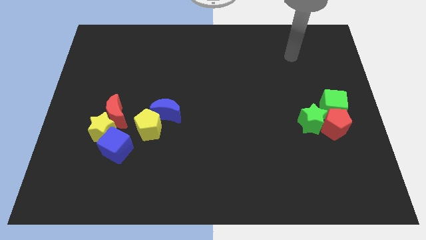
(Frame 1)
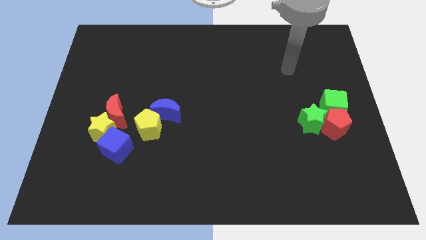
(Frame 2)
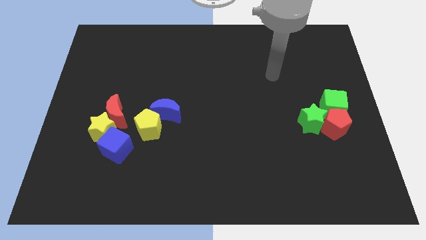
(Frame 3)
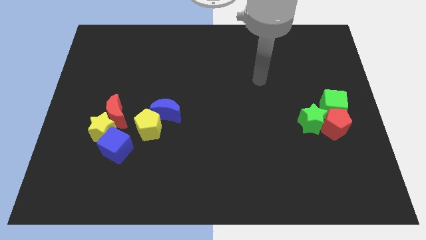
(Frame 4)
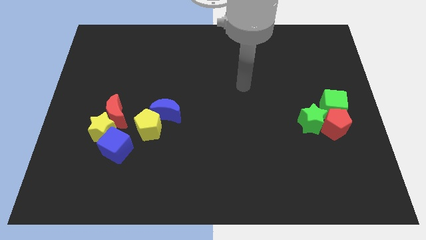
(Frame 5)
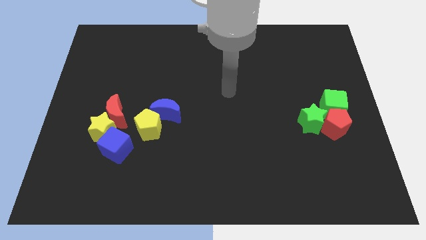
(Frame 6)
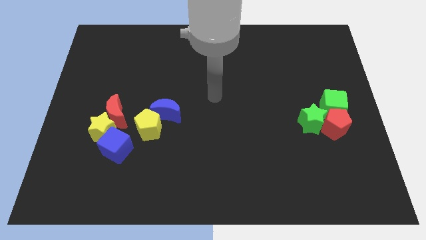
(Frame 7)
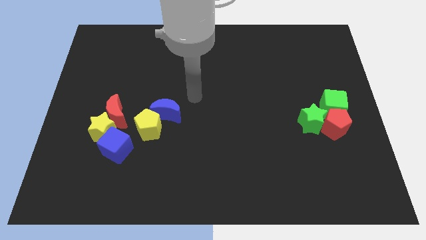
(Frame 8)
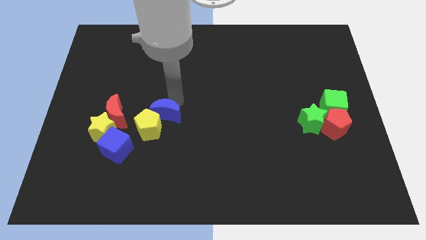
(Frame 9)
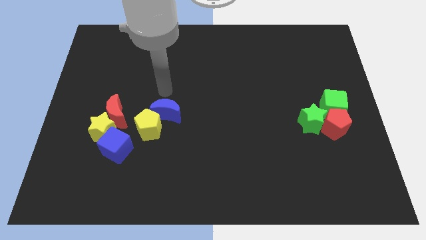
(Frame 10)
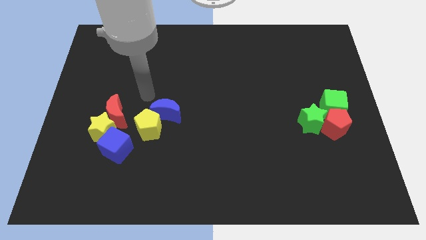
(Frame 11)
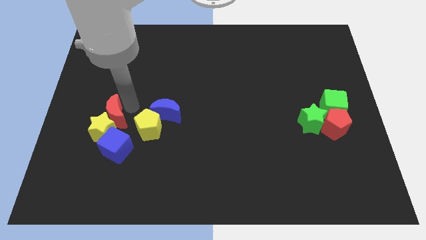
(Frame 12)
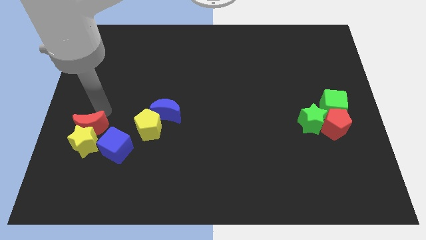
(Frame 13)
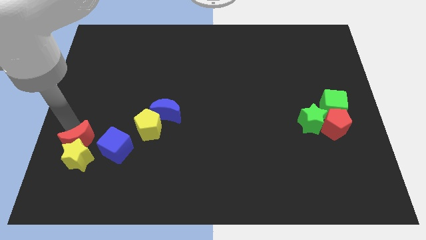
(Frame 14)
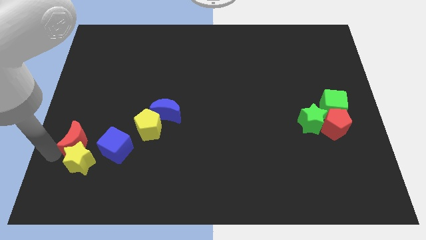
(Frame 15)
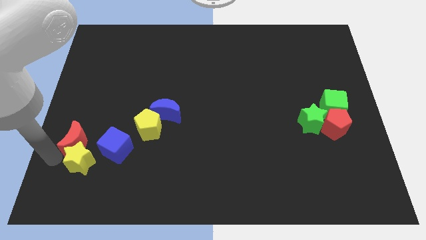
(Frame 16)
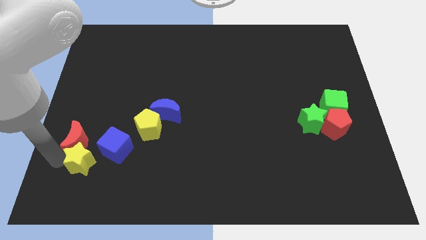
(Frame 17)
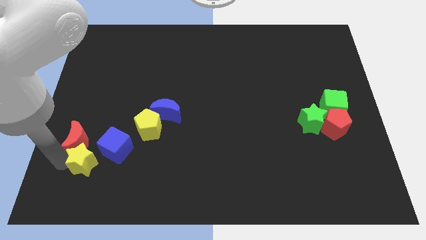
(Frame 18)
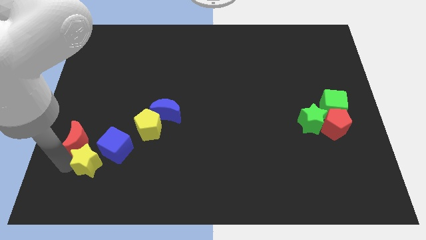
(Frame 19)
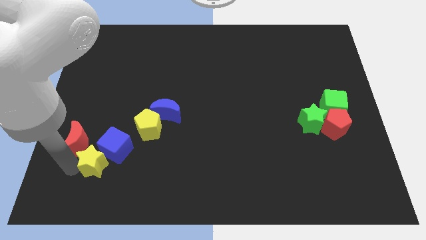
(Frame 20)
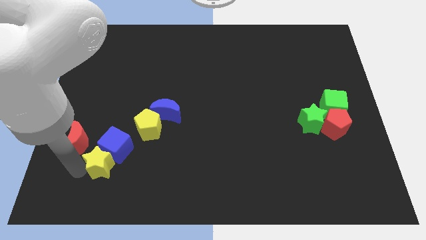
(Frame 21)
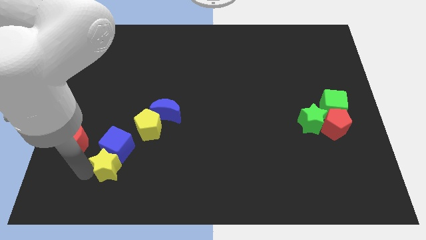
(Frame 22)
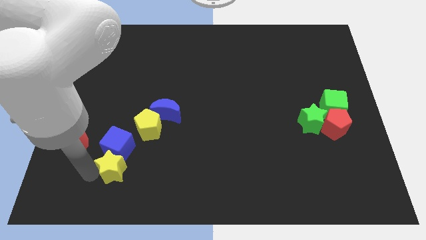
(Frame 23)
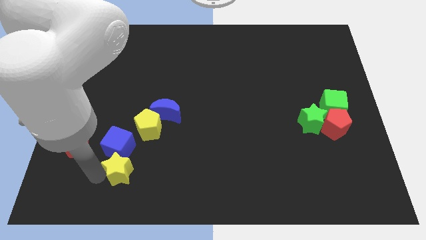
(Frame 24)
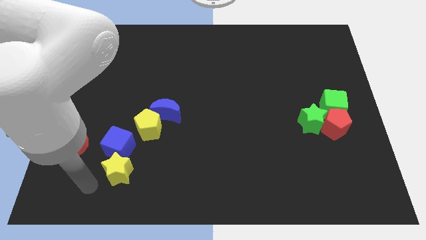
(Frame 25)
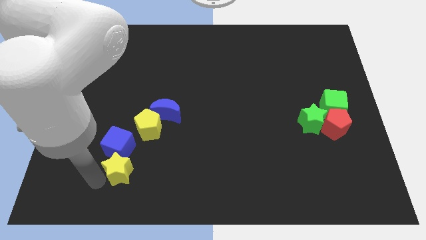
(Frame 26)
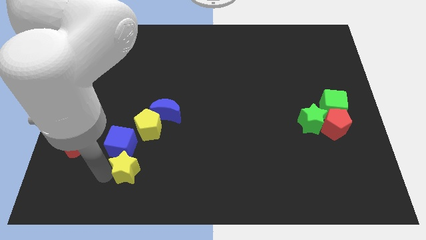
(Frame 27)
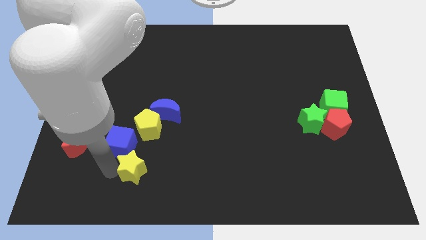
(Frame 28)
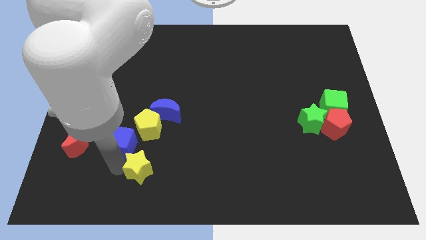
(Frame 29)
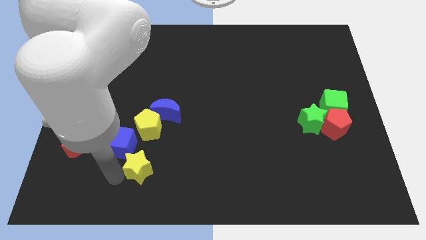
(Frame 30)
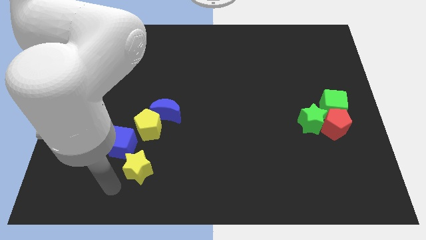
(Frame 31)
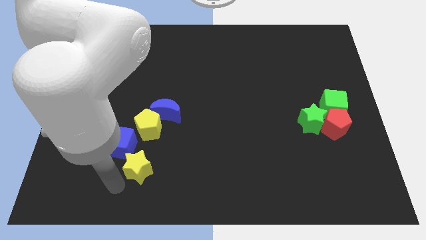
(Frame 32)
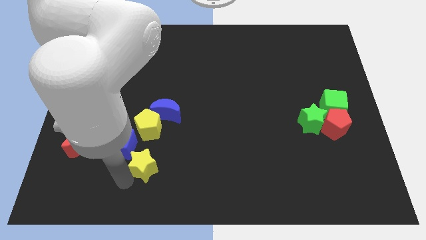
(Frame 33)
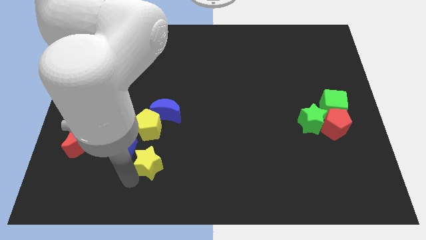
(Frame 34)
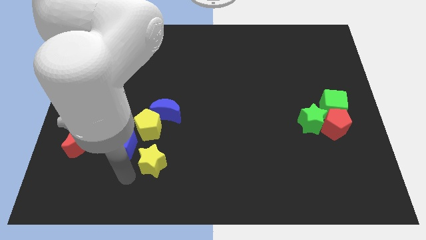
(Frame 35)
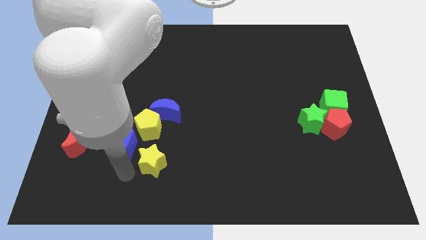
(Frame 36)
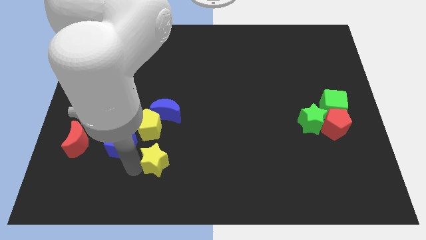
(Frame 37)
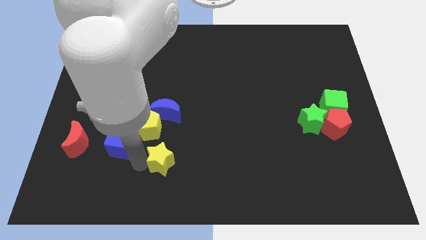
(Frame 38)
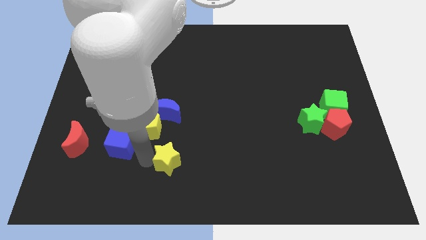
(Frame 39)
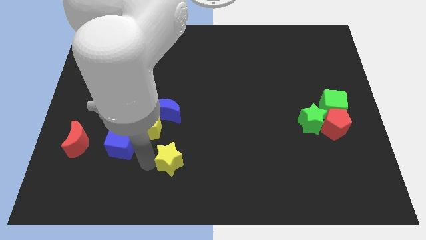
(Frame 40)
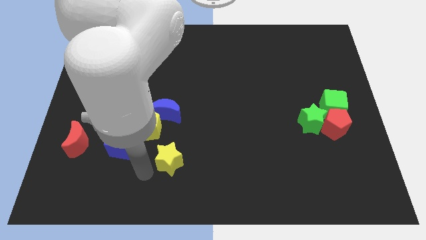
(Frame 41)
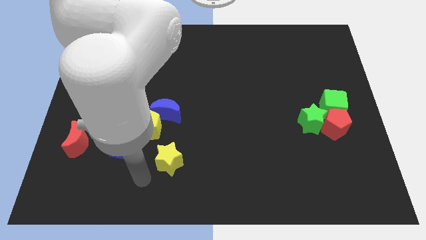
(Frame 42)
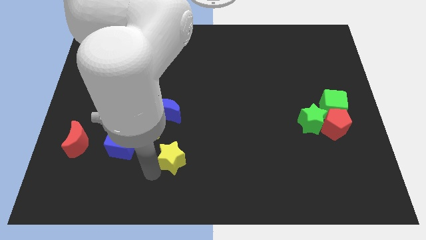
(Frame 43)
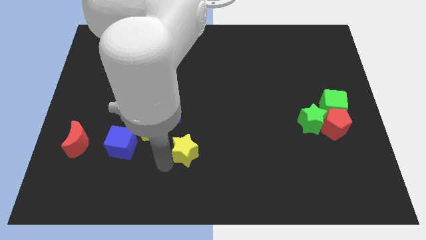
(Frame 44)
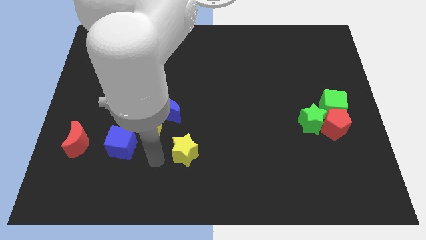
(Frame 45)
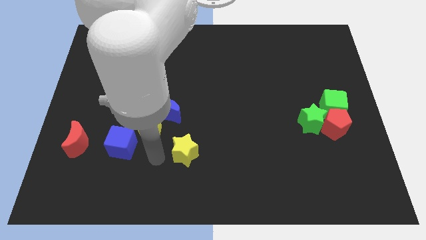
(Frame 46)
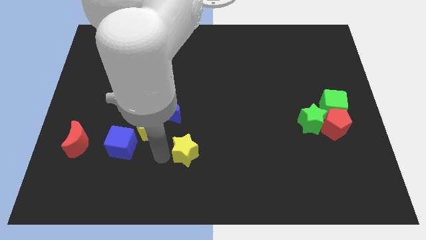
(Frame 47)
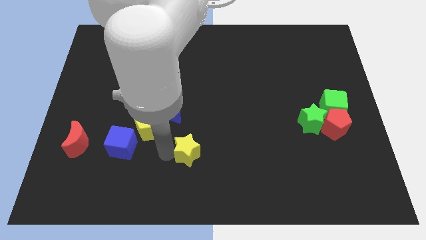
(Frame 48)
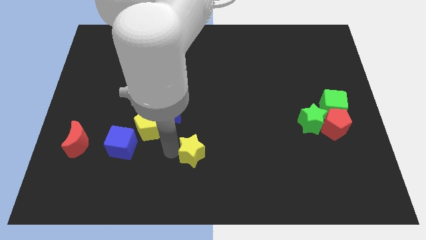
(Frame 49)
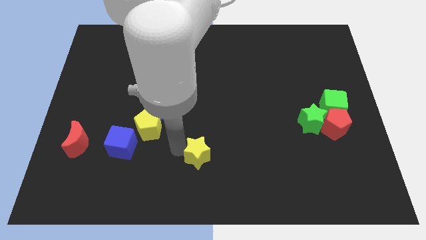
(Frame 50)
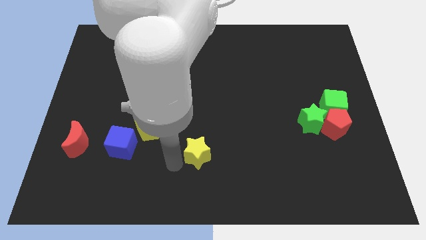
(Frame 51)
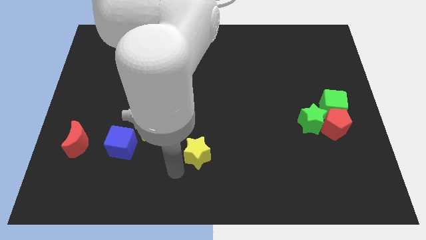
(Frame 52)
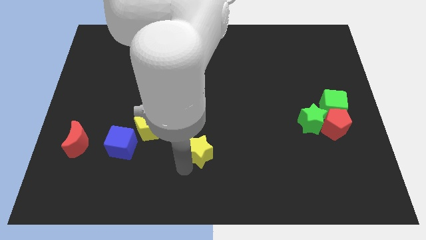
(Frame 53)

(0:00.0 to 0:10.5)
slide the yellow star to the right

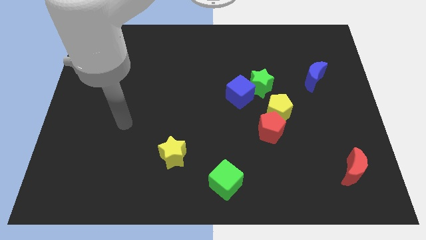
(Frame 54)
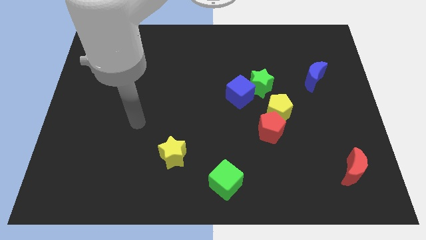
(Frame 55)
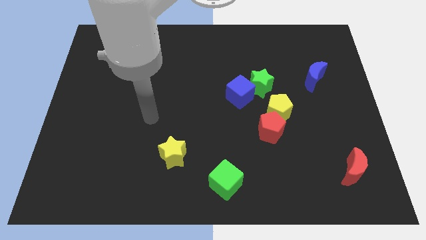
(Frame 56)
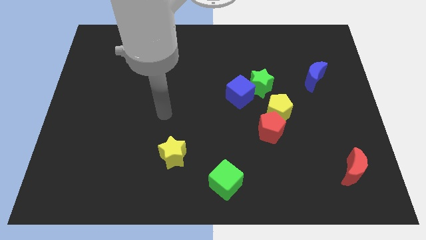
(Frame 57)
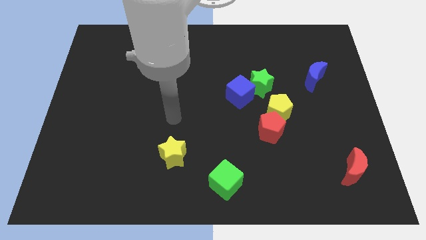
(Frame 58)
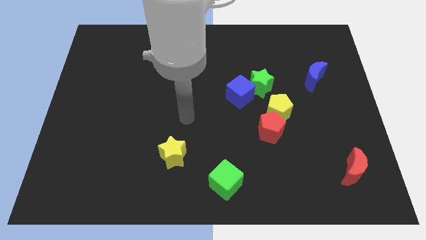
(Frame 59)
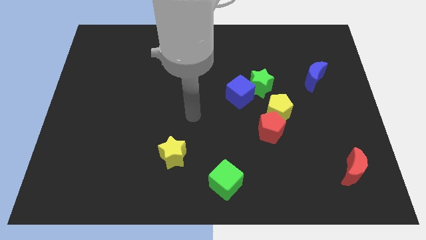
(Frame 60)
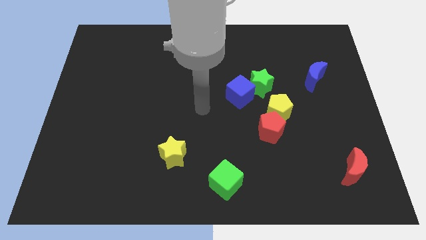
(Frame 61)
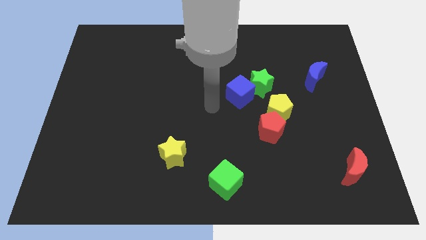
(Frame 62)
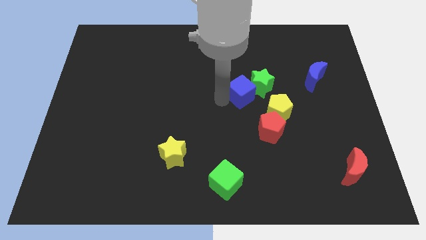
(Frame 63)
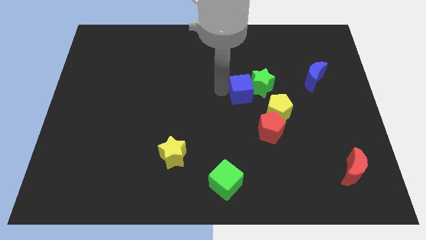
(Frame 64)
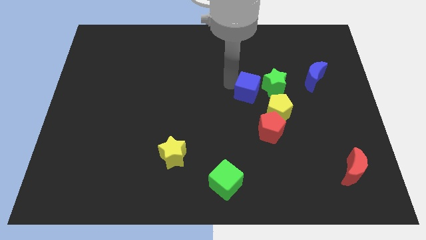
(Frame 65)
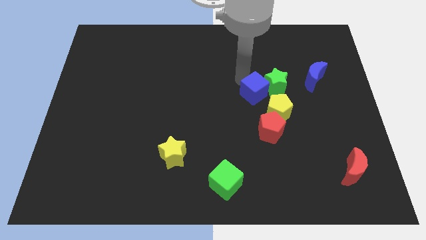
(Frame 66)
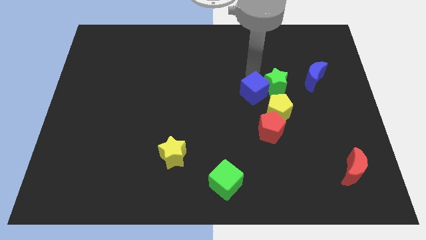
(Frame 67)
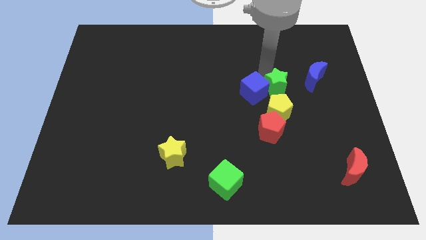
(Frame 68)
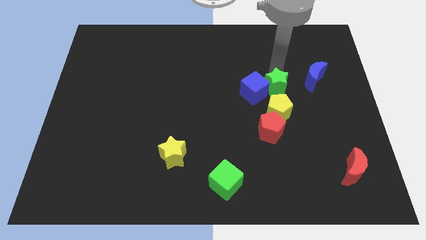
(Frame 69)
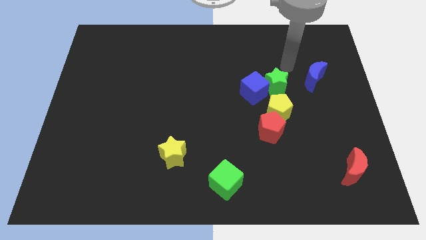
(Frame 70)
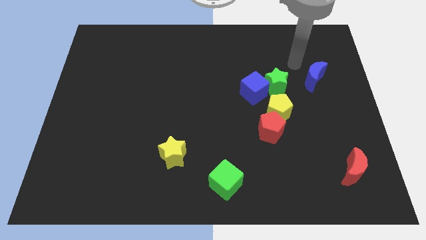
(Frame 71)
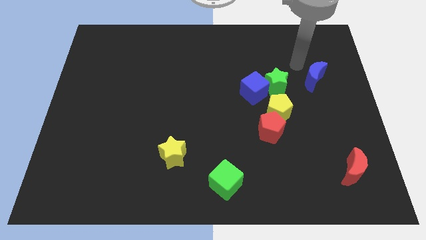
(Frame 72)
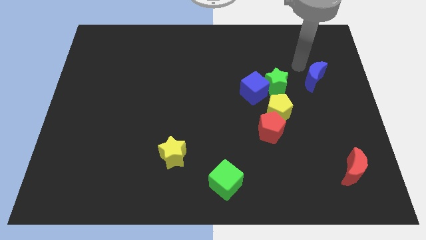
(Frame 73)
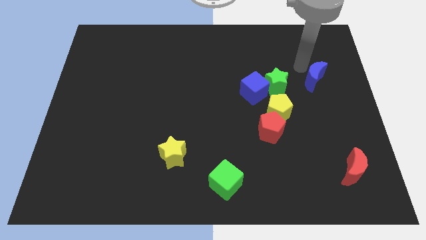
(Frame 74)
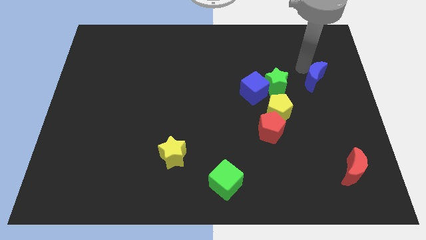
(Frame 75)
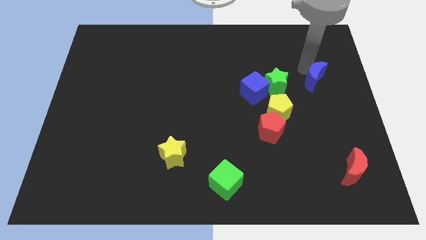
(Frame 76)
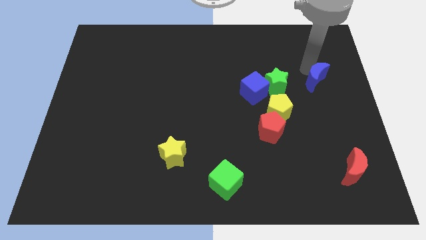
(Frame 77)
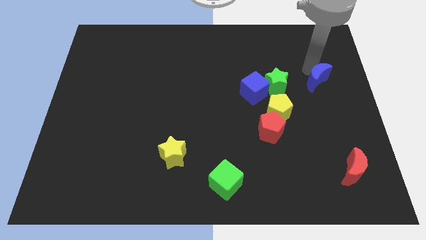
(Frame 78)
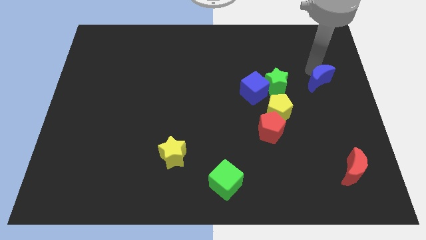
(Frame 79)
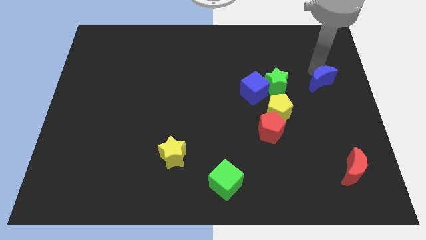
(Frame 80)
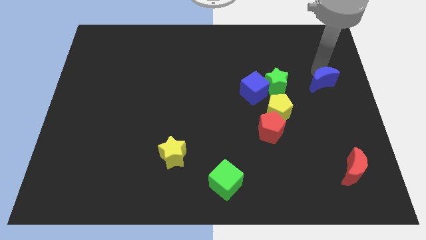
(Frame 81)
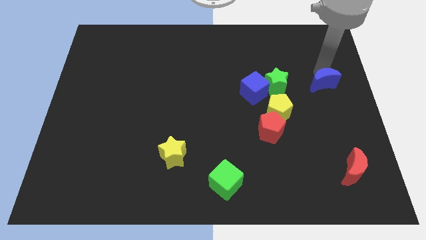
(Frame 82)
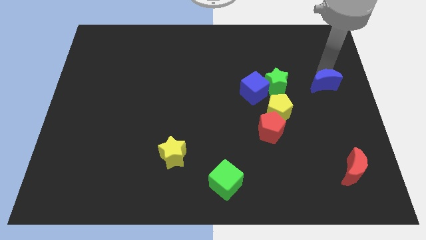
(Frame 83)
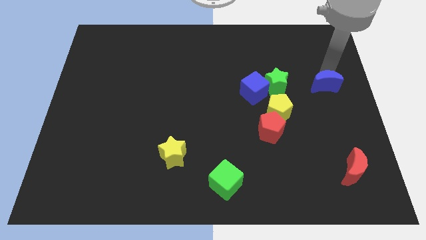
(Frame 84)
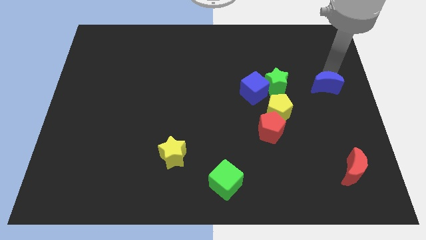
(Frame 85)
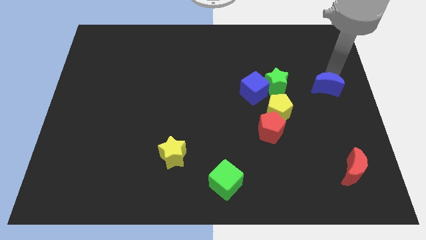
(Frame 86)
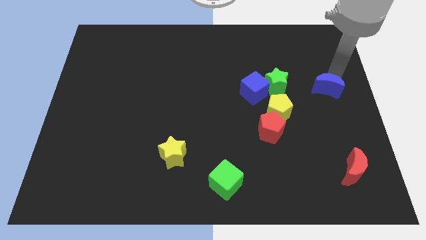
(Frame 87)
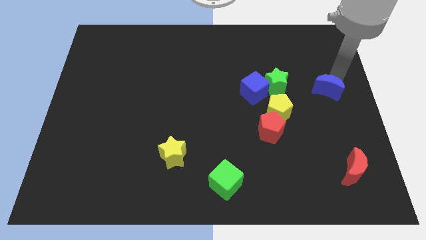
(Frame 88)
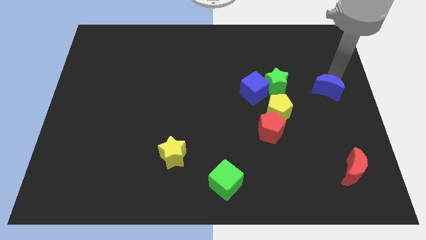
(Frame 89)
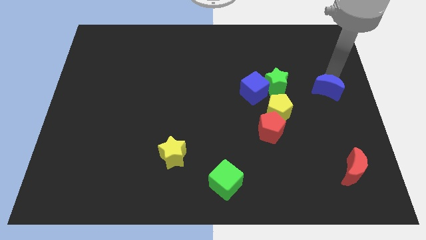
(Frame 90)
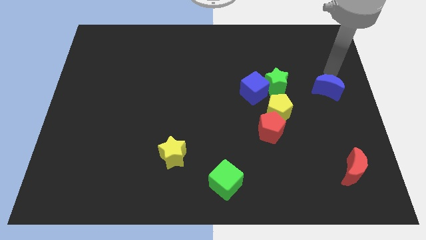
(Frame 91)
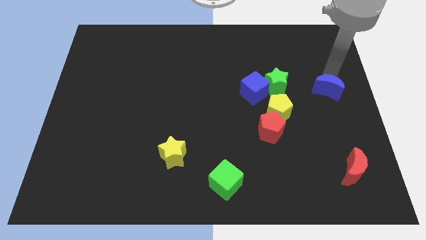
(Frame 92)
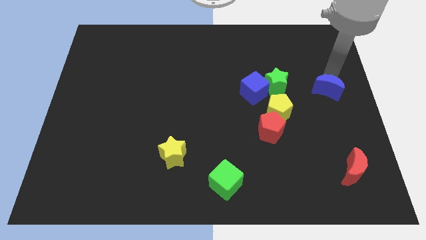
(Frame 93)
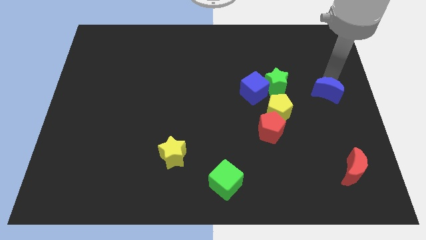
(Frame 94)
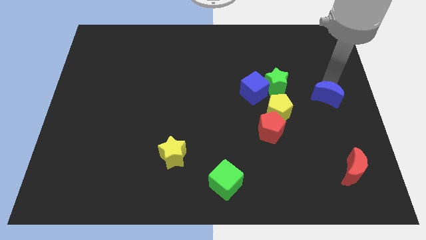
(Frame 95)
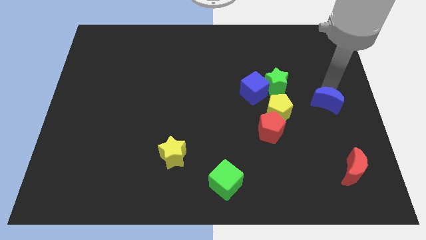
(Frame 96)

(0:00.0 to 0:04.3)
push the blue moon slightly downwards
